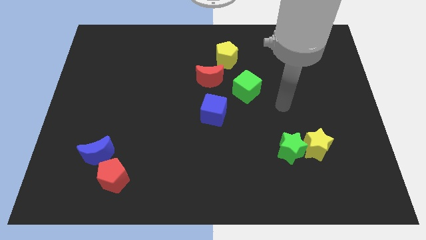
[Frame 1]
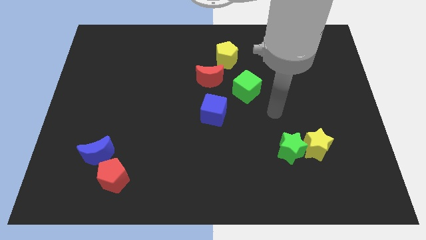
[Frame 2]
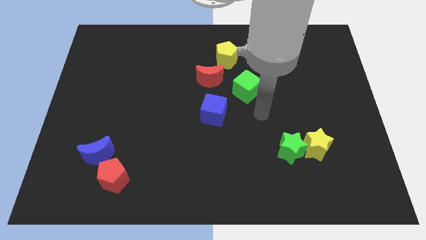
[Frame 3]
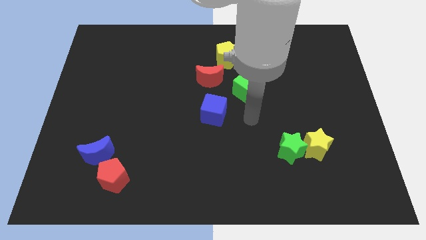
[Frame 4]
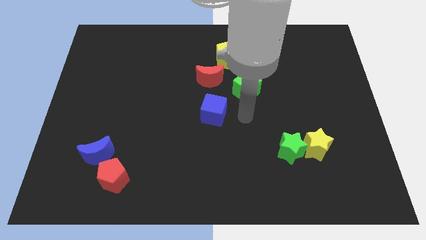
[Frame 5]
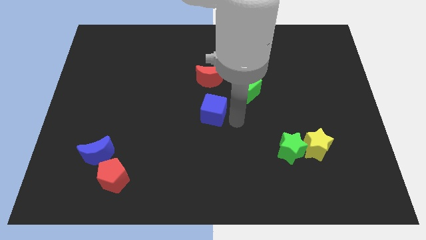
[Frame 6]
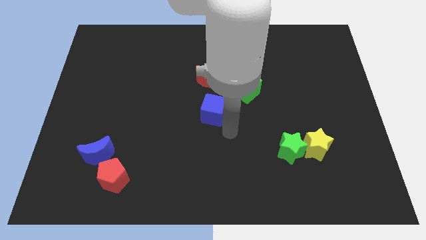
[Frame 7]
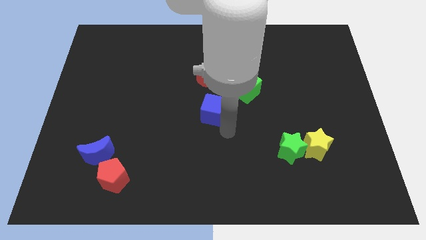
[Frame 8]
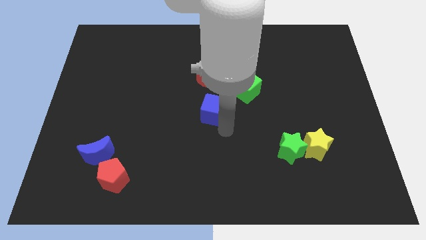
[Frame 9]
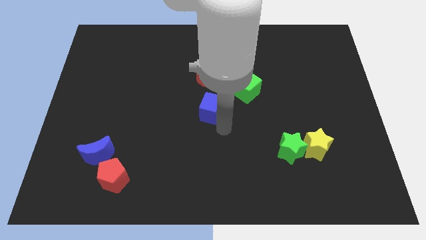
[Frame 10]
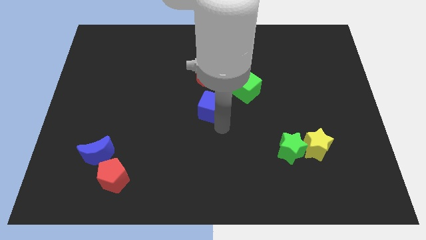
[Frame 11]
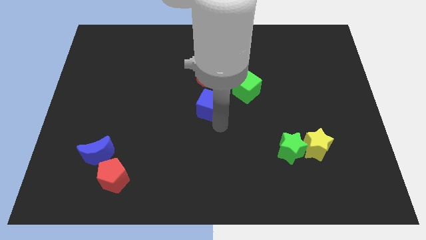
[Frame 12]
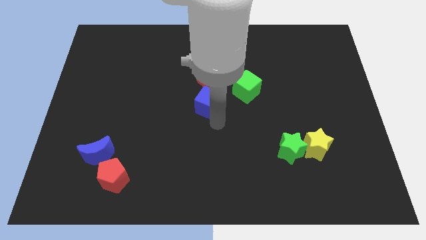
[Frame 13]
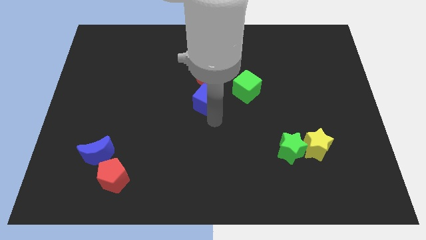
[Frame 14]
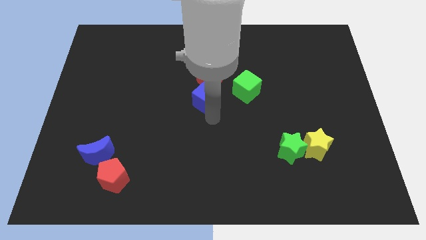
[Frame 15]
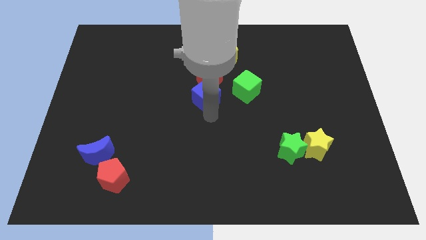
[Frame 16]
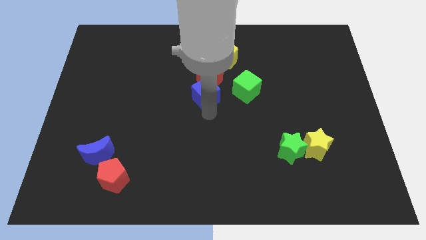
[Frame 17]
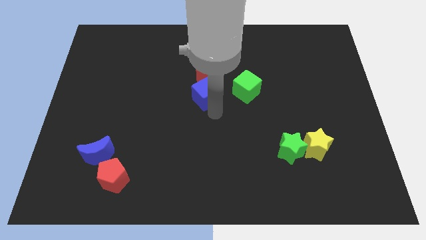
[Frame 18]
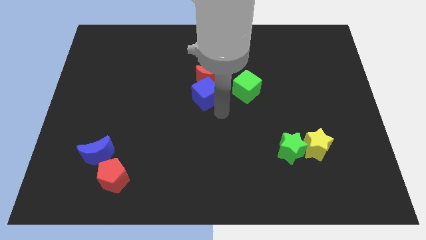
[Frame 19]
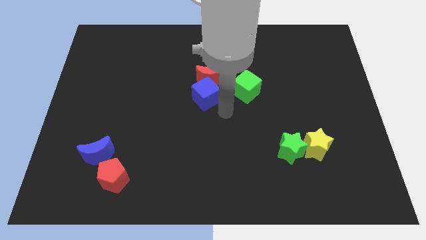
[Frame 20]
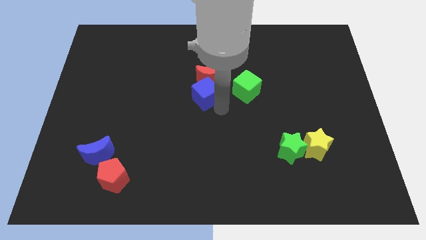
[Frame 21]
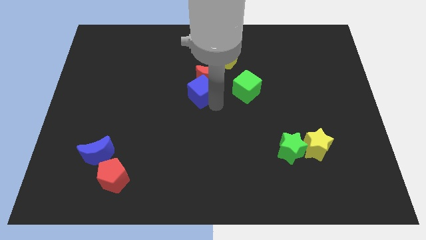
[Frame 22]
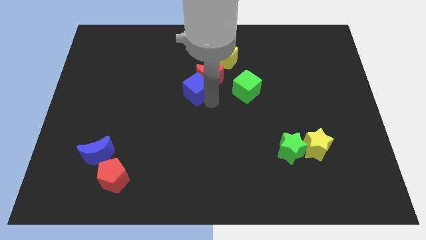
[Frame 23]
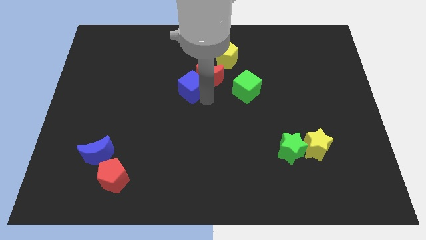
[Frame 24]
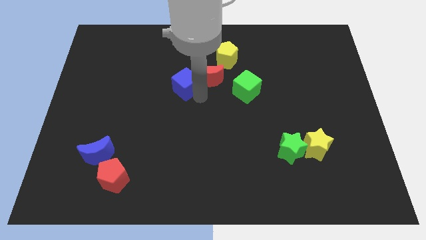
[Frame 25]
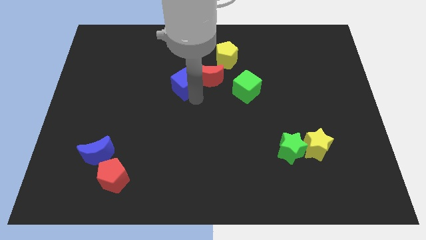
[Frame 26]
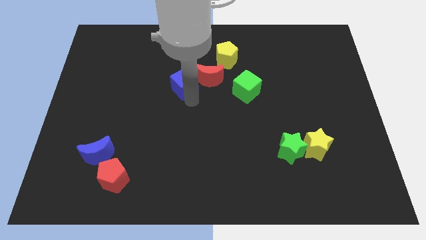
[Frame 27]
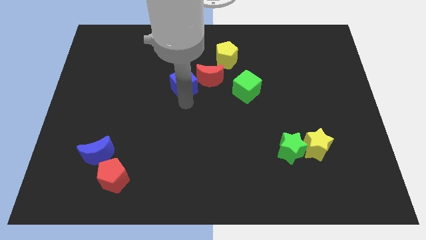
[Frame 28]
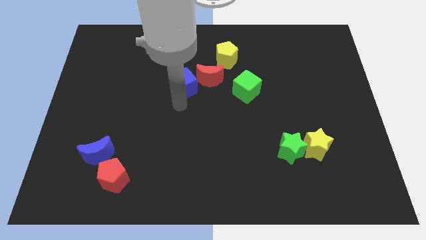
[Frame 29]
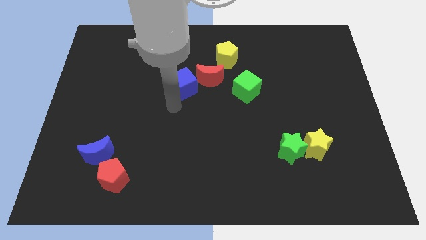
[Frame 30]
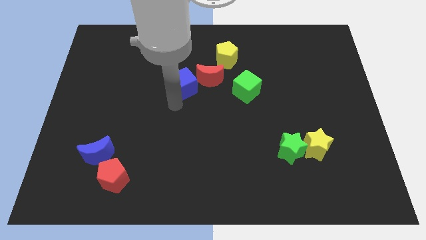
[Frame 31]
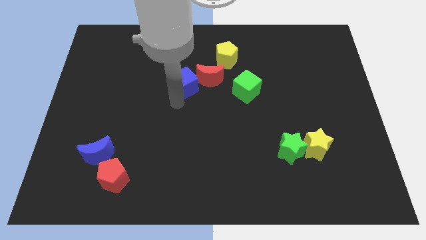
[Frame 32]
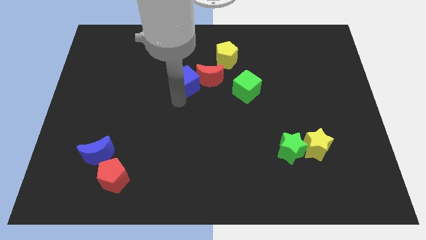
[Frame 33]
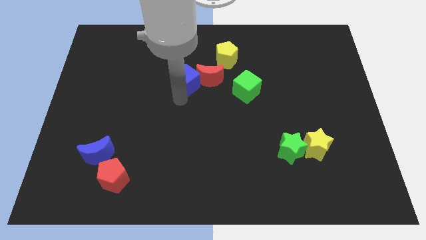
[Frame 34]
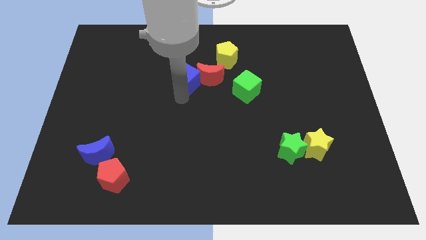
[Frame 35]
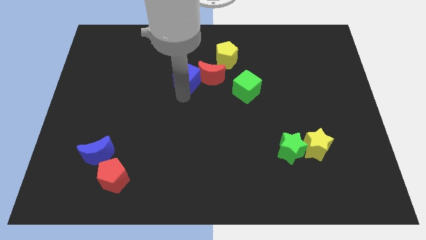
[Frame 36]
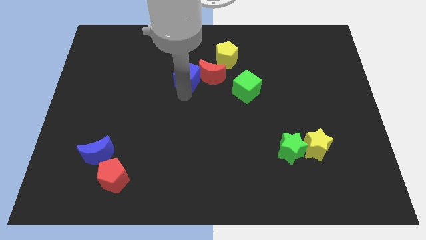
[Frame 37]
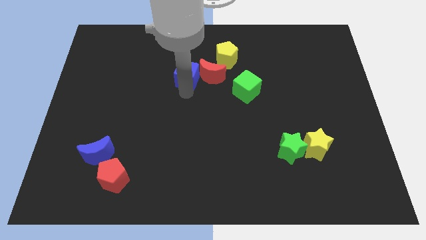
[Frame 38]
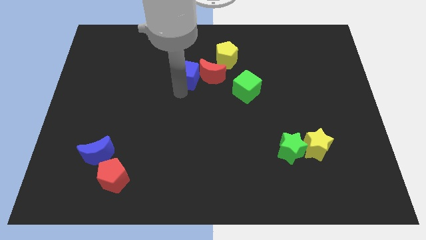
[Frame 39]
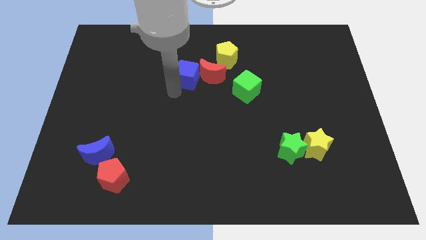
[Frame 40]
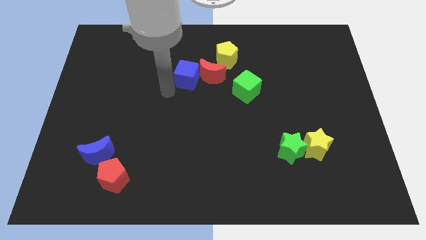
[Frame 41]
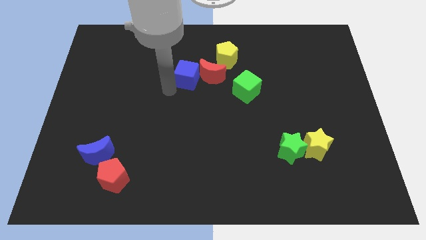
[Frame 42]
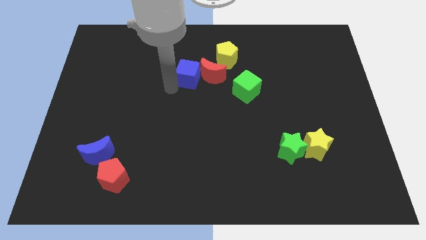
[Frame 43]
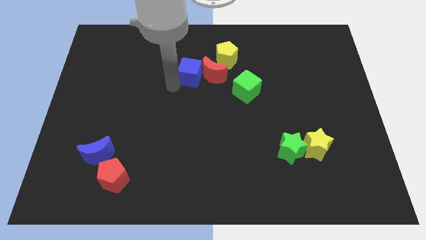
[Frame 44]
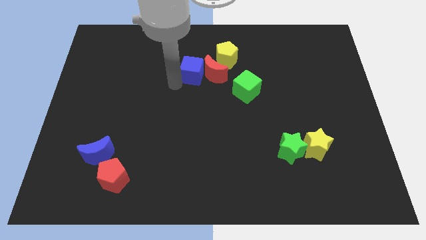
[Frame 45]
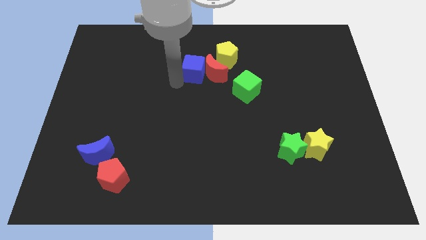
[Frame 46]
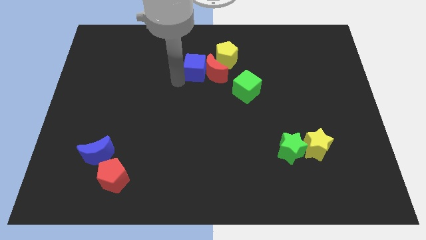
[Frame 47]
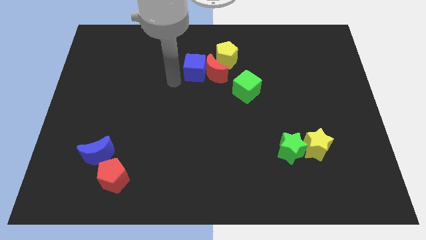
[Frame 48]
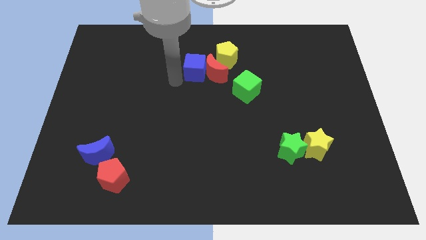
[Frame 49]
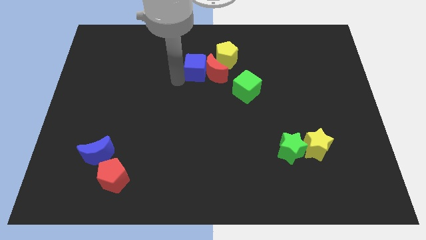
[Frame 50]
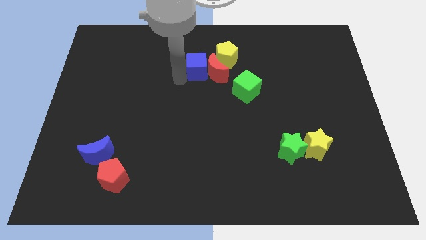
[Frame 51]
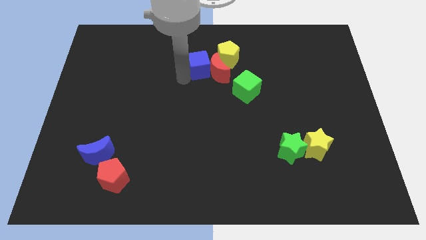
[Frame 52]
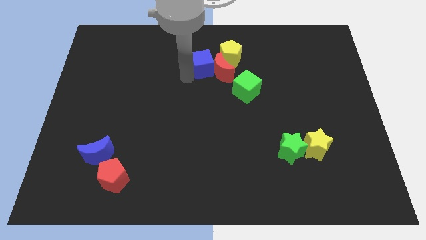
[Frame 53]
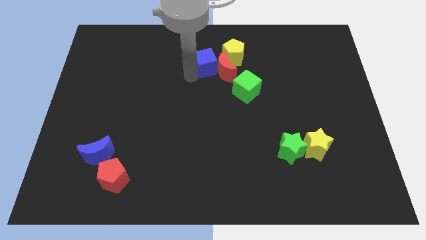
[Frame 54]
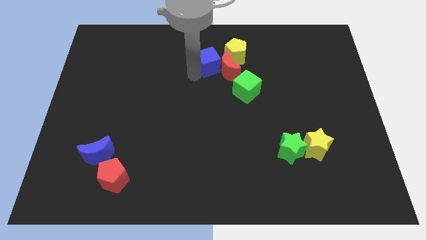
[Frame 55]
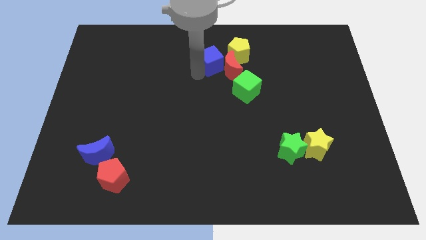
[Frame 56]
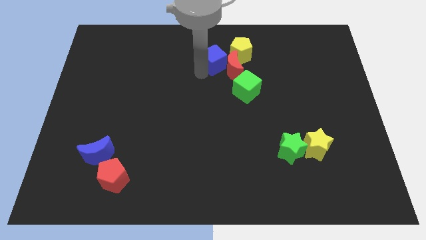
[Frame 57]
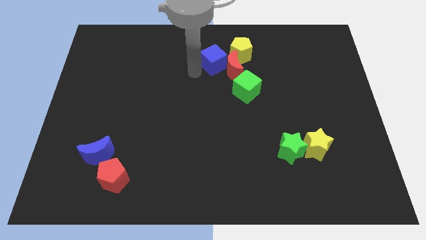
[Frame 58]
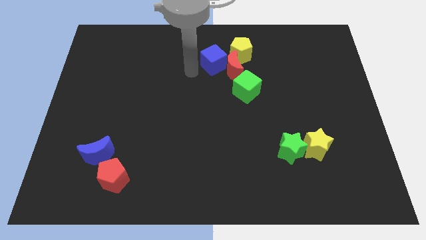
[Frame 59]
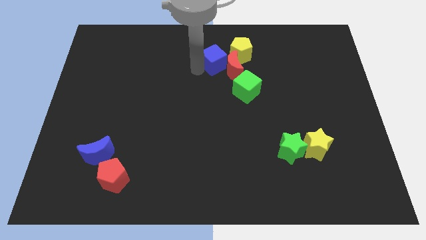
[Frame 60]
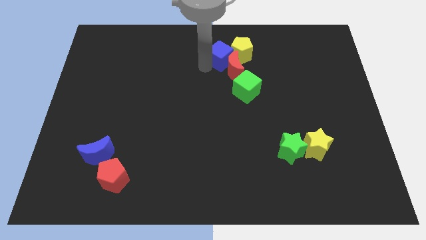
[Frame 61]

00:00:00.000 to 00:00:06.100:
move the blue cube towards the yellow pentagon

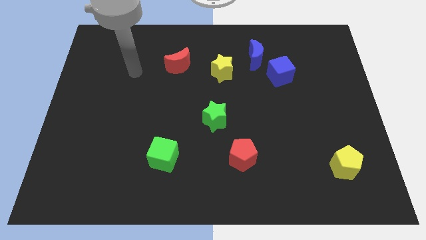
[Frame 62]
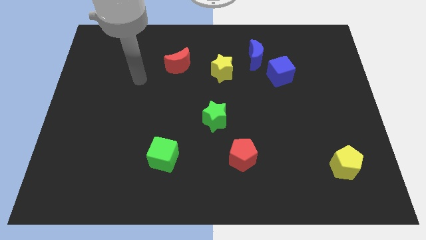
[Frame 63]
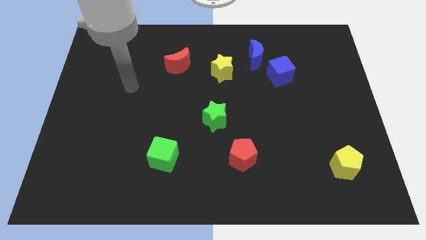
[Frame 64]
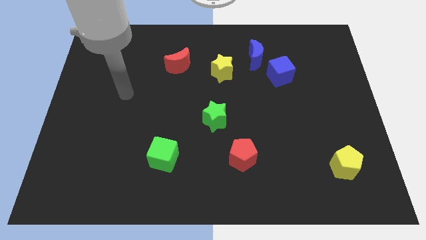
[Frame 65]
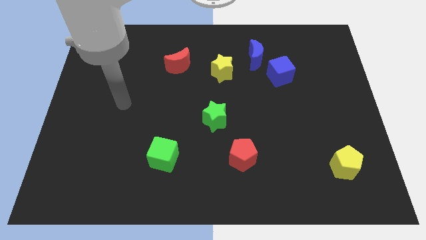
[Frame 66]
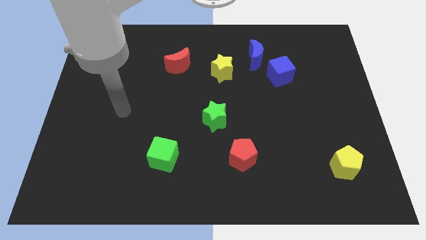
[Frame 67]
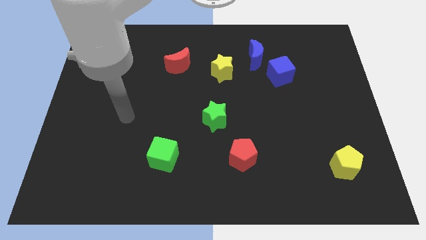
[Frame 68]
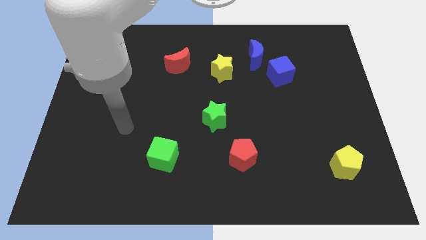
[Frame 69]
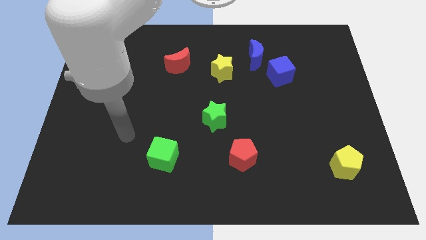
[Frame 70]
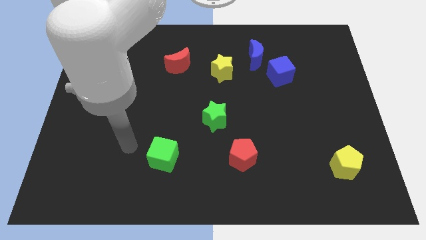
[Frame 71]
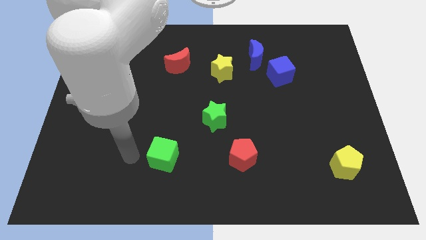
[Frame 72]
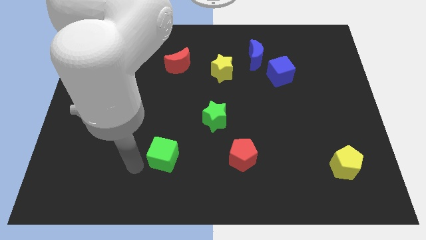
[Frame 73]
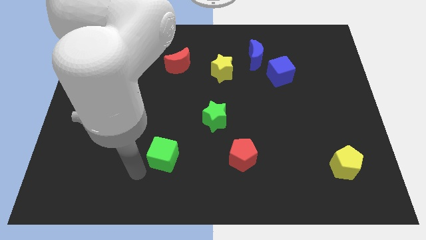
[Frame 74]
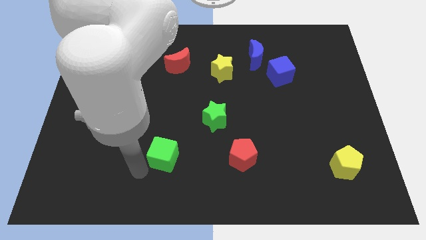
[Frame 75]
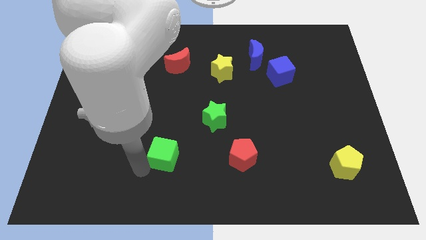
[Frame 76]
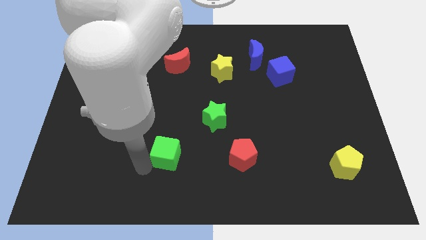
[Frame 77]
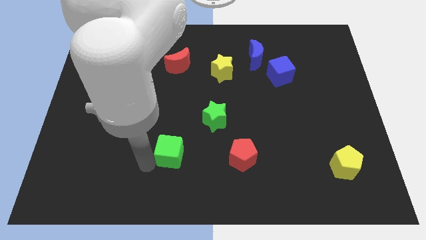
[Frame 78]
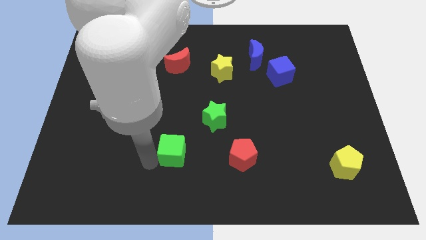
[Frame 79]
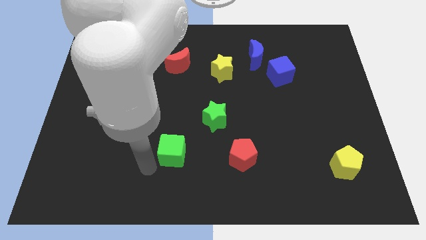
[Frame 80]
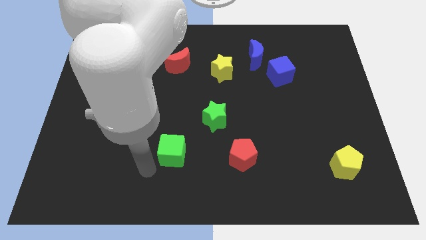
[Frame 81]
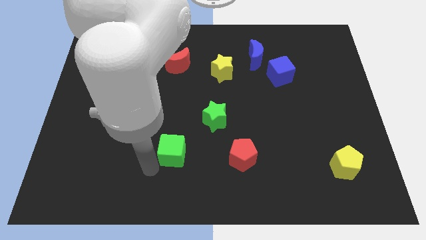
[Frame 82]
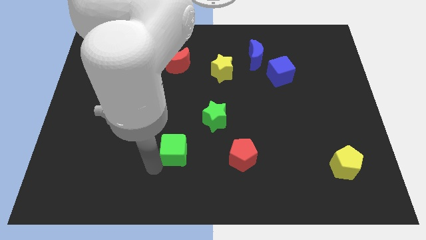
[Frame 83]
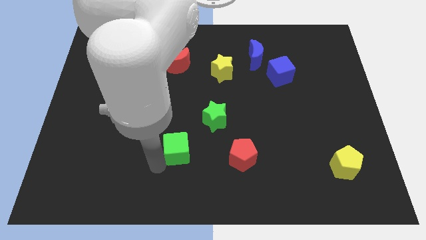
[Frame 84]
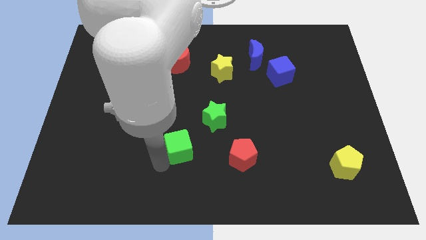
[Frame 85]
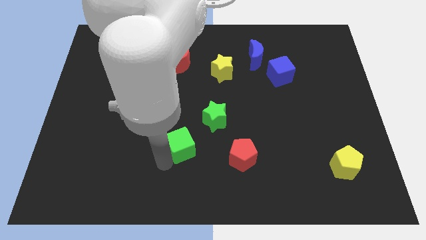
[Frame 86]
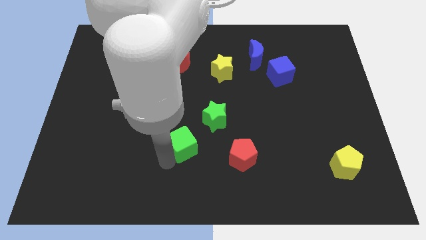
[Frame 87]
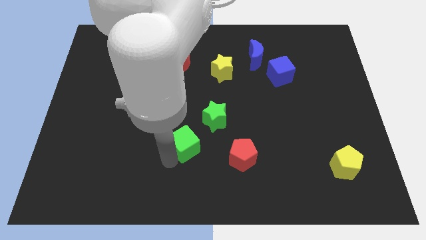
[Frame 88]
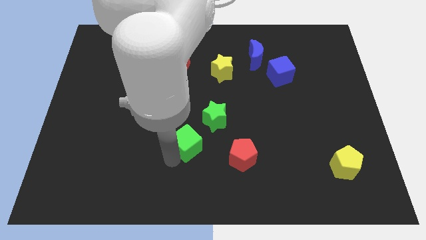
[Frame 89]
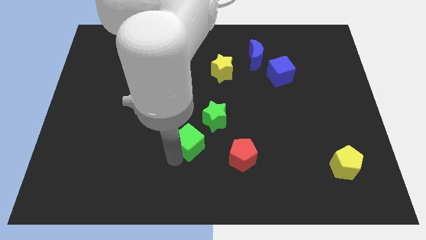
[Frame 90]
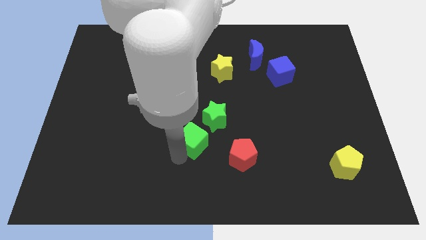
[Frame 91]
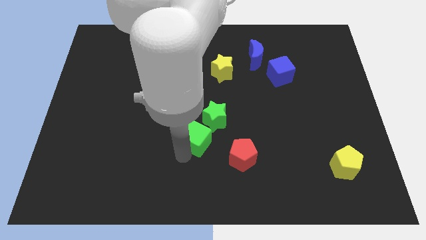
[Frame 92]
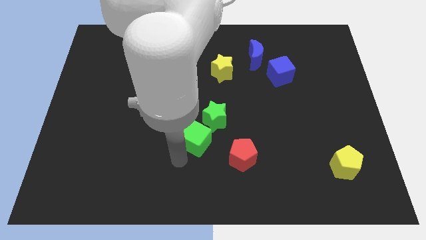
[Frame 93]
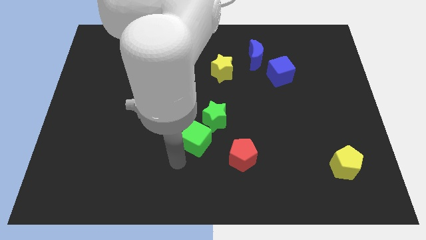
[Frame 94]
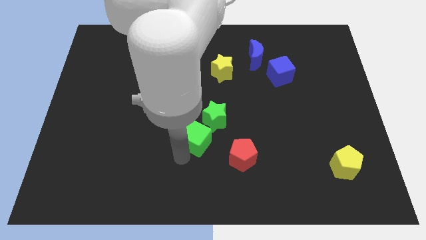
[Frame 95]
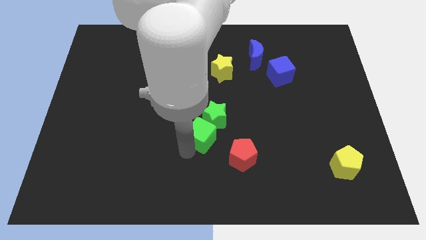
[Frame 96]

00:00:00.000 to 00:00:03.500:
slide the green cube to the green star
